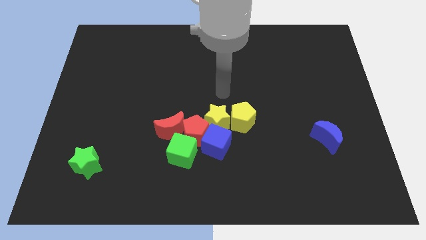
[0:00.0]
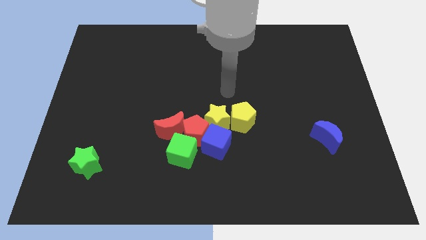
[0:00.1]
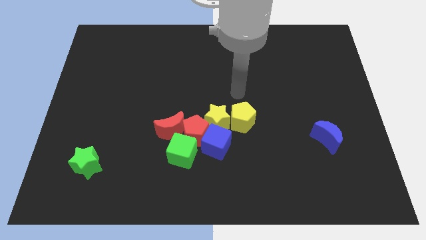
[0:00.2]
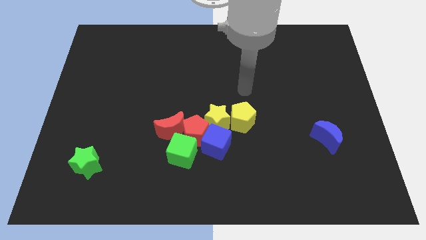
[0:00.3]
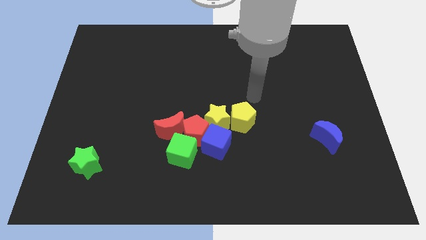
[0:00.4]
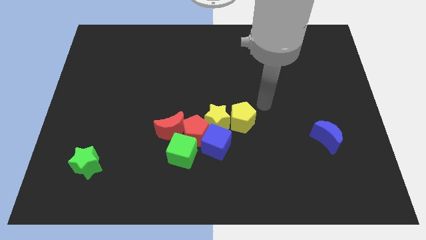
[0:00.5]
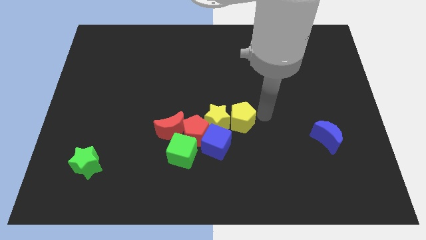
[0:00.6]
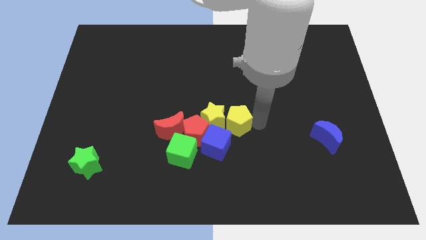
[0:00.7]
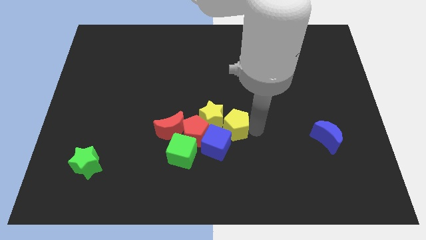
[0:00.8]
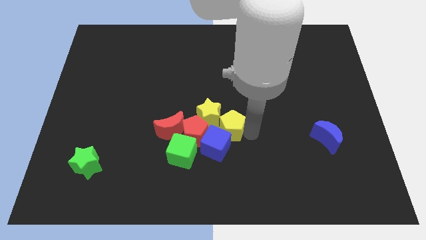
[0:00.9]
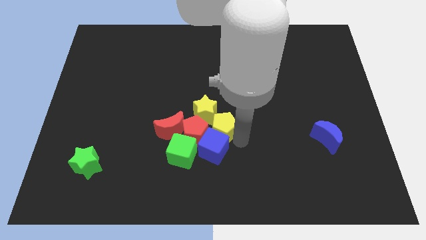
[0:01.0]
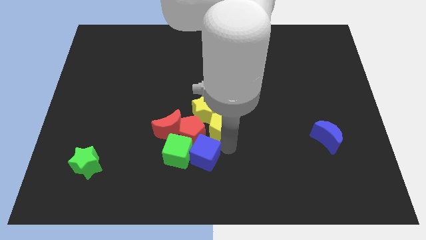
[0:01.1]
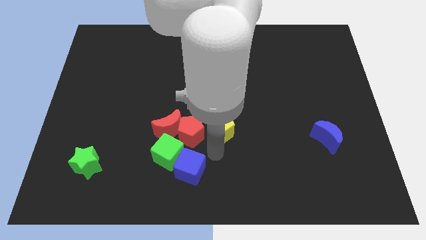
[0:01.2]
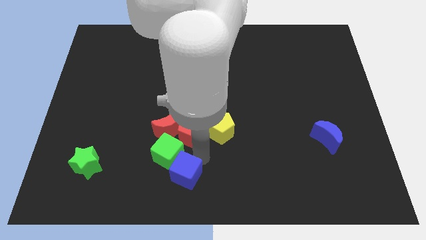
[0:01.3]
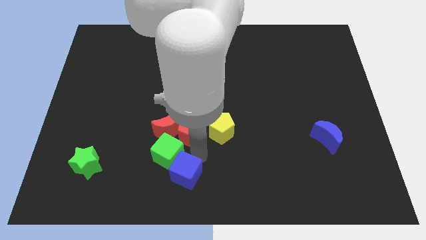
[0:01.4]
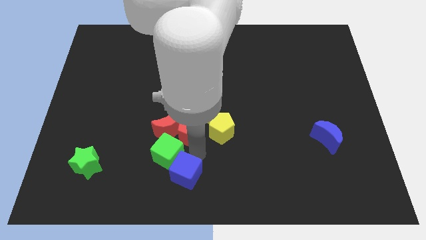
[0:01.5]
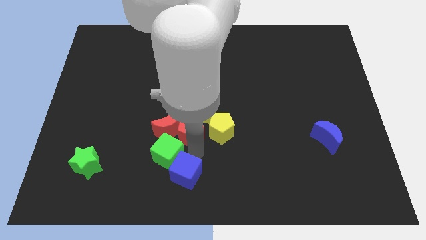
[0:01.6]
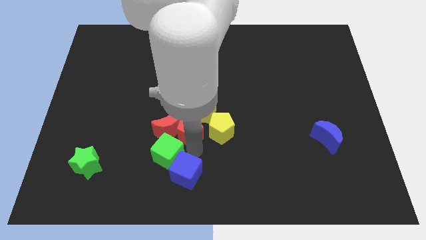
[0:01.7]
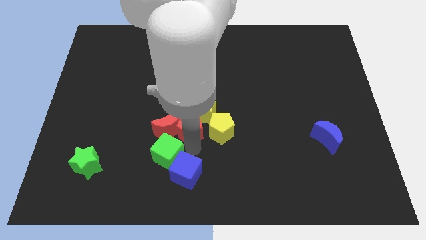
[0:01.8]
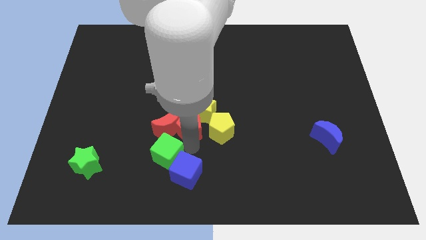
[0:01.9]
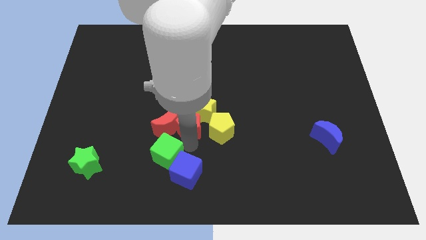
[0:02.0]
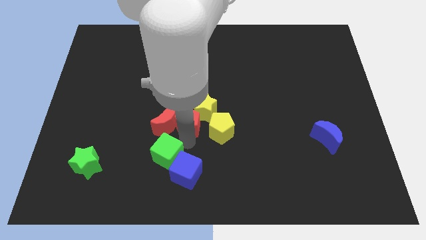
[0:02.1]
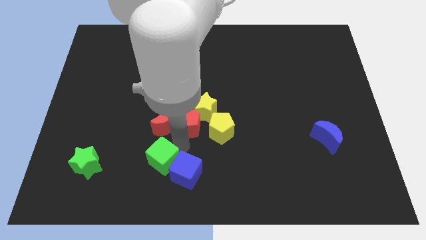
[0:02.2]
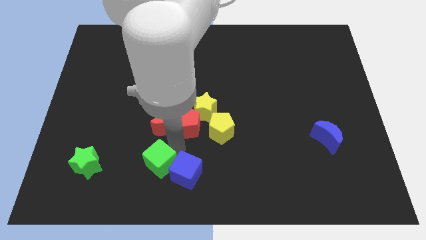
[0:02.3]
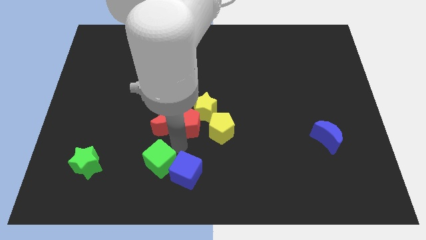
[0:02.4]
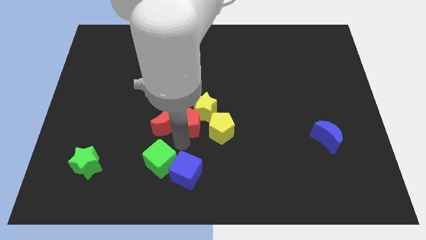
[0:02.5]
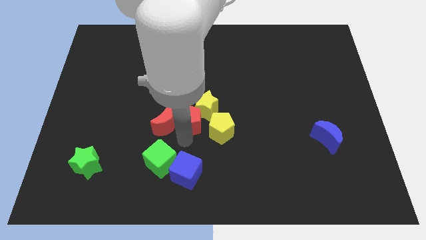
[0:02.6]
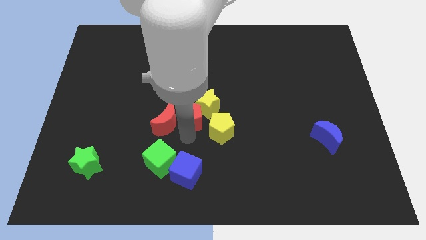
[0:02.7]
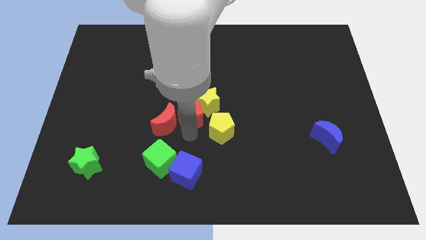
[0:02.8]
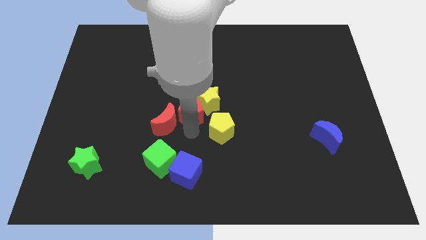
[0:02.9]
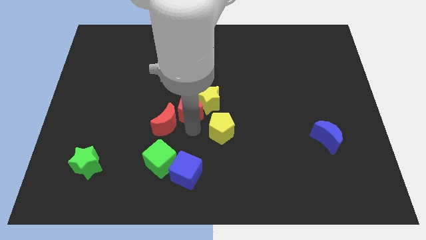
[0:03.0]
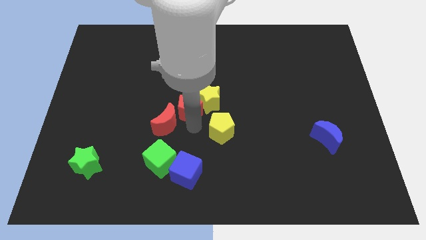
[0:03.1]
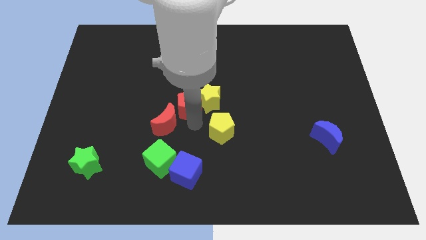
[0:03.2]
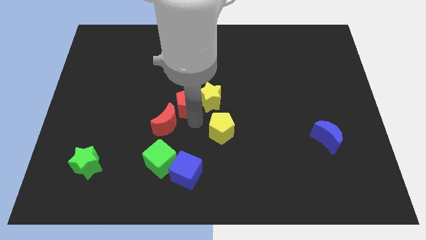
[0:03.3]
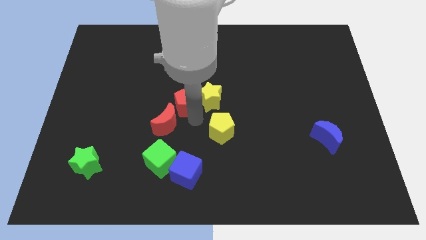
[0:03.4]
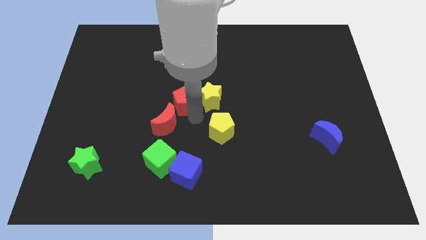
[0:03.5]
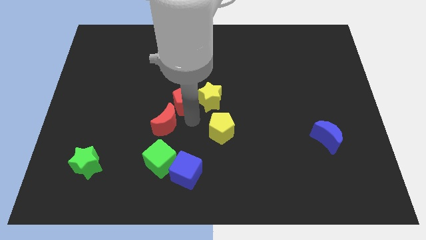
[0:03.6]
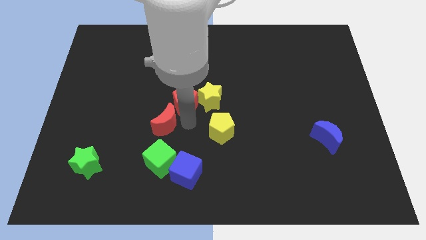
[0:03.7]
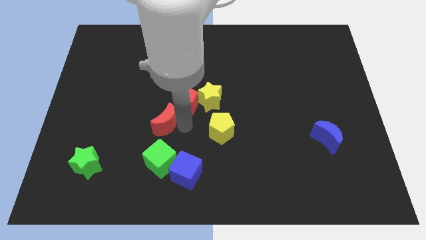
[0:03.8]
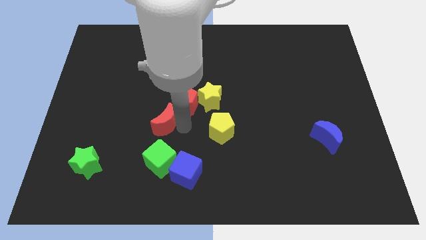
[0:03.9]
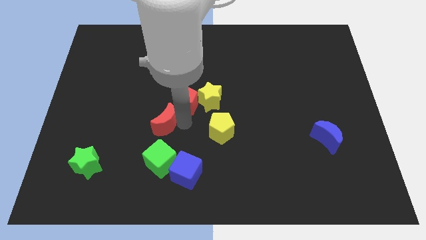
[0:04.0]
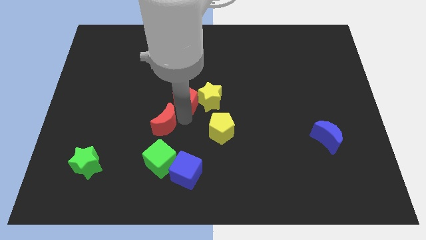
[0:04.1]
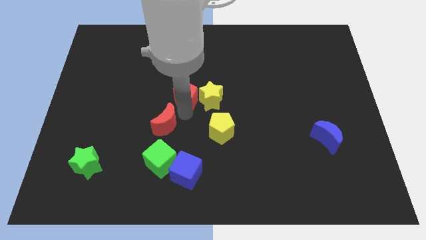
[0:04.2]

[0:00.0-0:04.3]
separate the red pentagon from the group of blocks

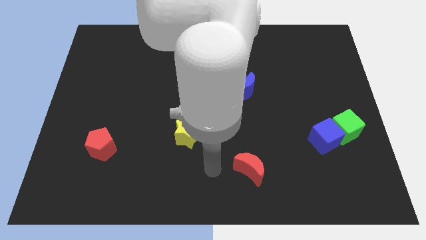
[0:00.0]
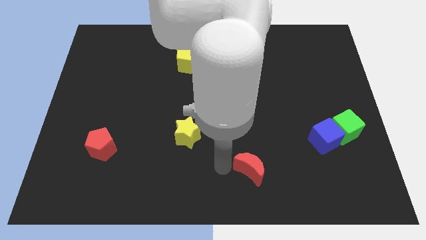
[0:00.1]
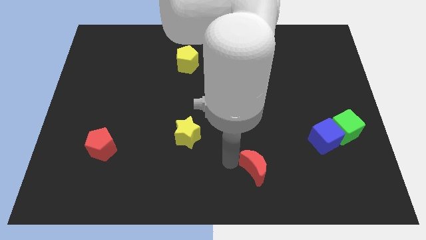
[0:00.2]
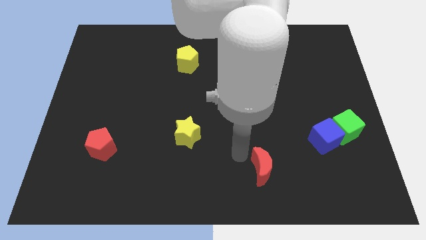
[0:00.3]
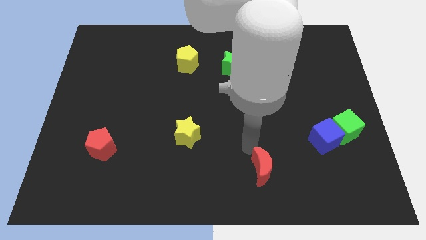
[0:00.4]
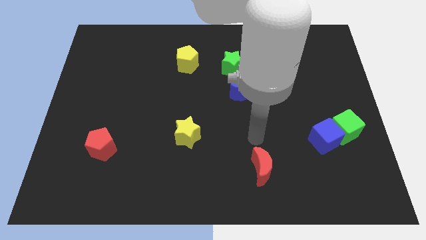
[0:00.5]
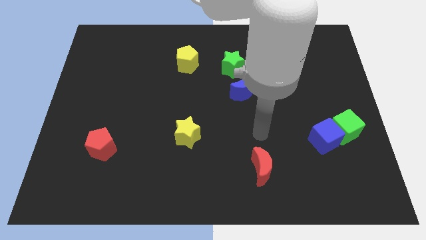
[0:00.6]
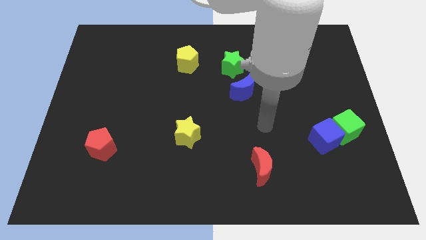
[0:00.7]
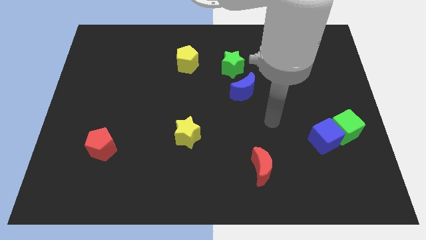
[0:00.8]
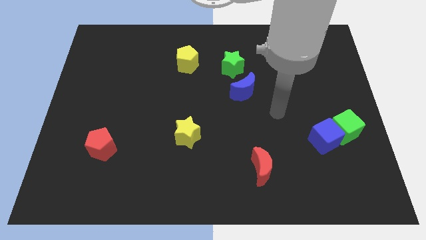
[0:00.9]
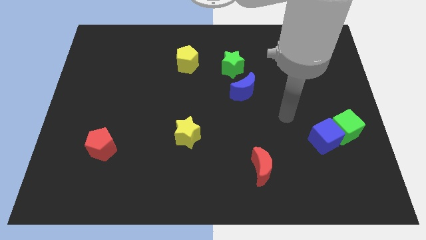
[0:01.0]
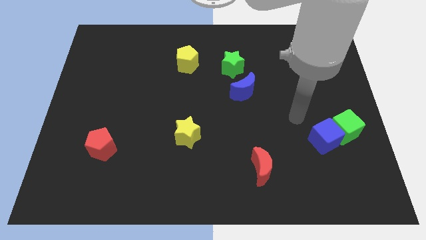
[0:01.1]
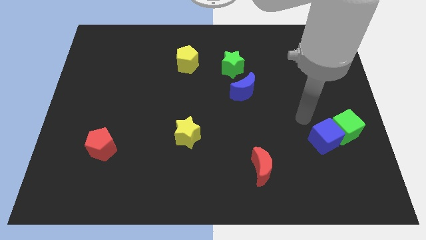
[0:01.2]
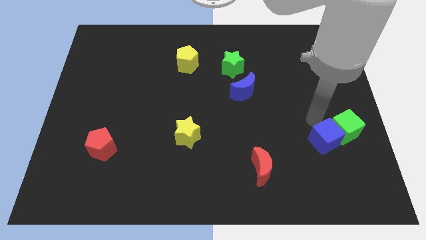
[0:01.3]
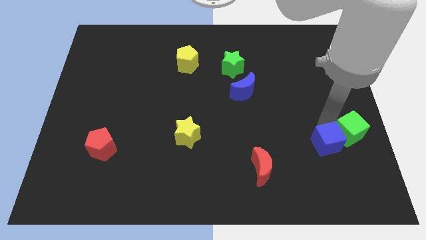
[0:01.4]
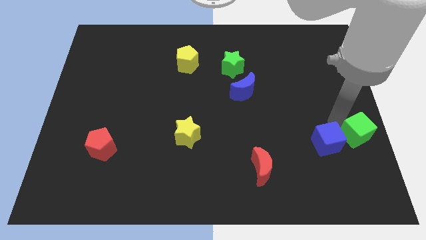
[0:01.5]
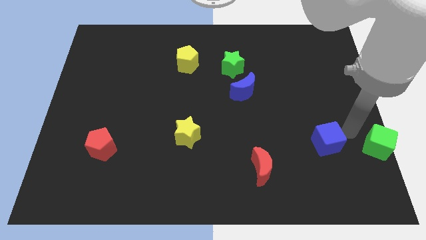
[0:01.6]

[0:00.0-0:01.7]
separate the blue cube from the green cube

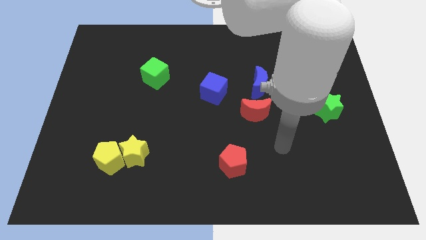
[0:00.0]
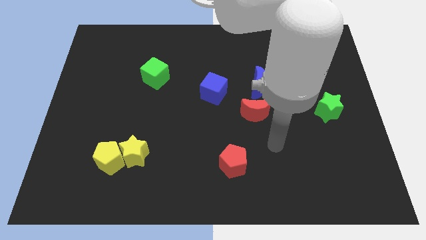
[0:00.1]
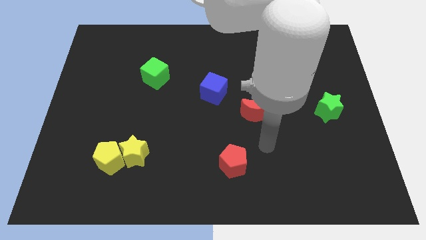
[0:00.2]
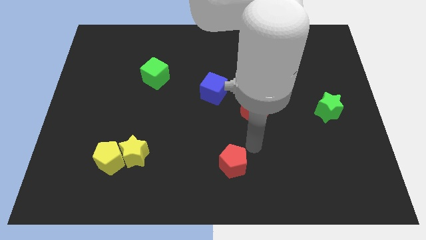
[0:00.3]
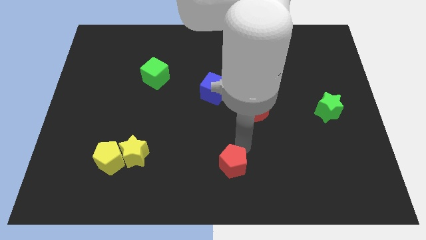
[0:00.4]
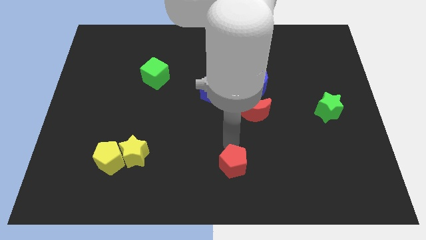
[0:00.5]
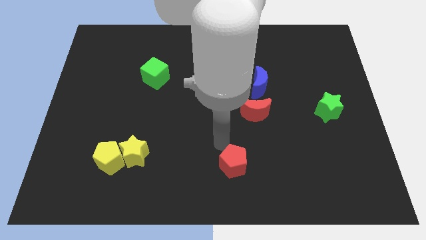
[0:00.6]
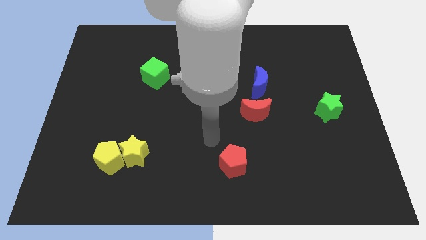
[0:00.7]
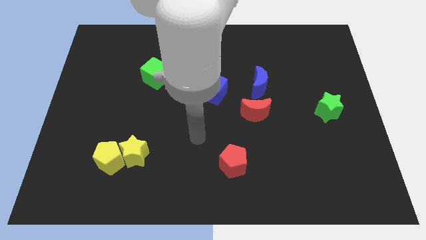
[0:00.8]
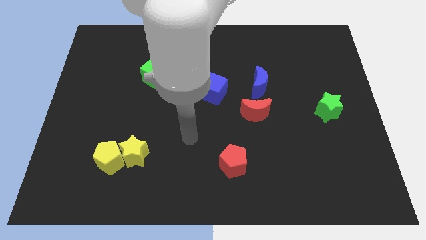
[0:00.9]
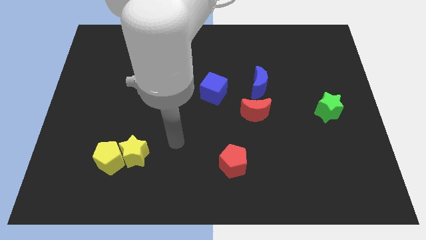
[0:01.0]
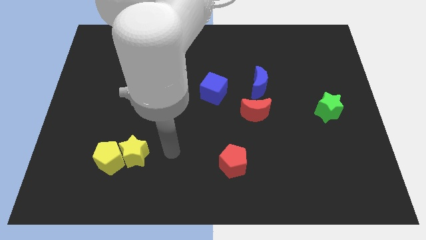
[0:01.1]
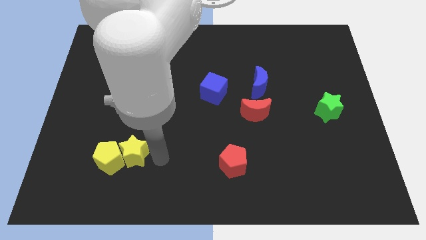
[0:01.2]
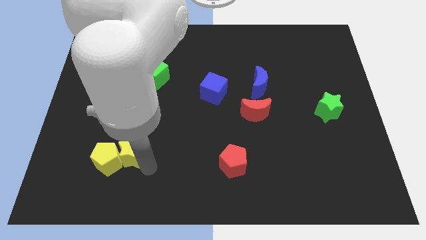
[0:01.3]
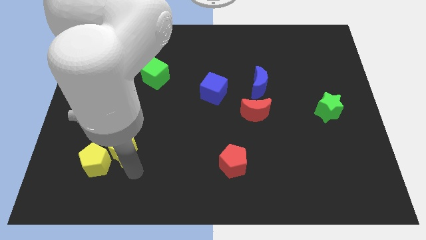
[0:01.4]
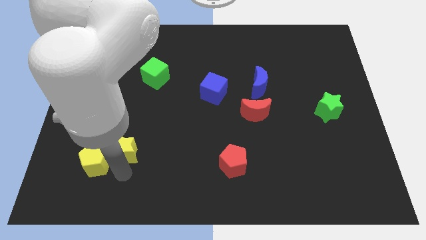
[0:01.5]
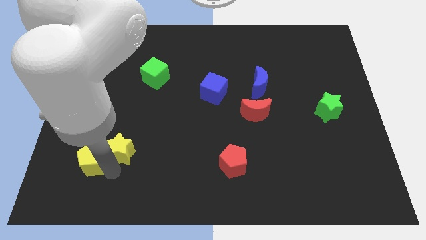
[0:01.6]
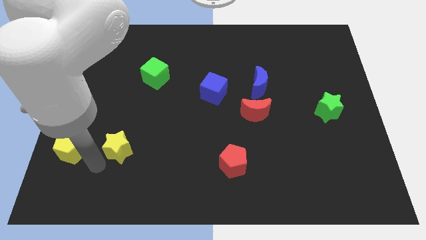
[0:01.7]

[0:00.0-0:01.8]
pull the yellow star apart from the yellow pentagon

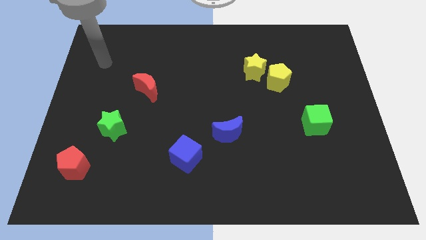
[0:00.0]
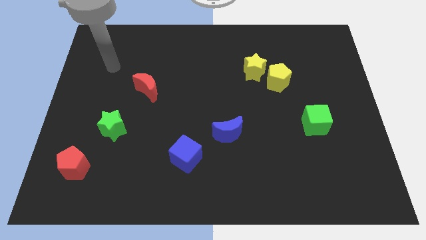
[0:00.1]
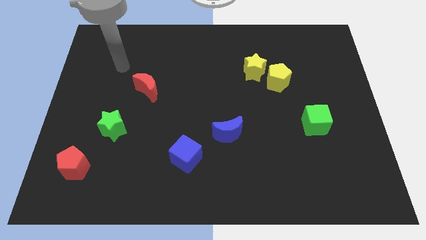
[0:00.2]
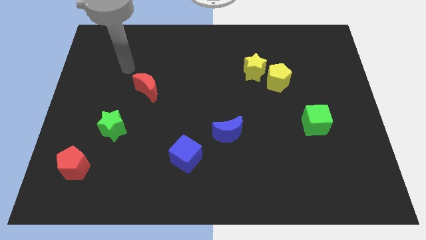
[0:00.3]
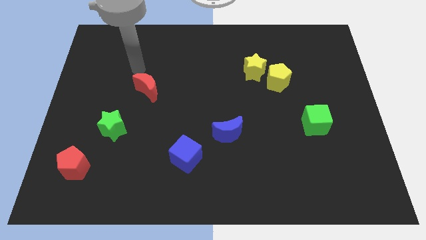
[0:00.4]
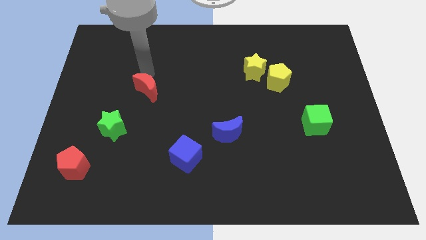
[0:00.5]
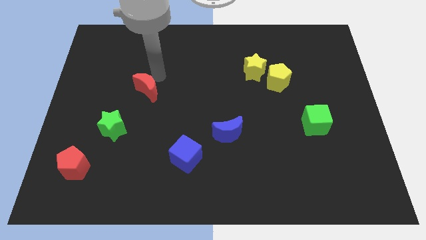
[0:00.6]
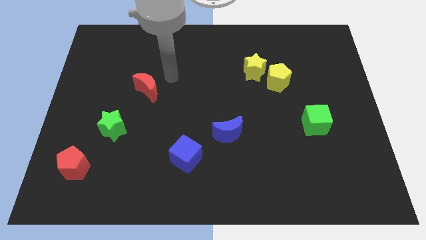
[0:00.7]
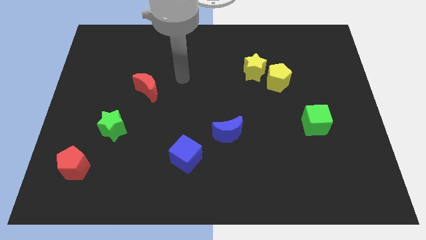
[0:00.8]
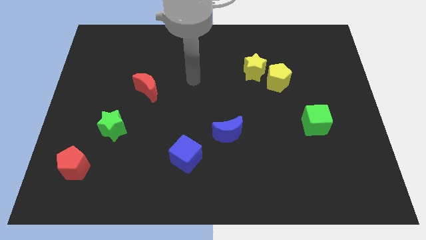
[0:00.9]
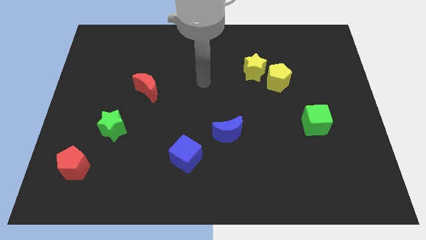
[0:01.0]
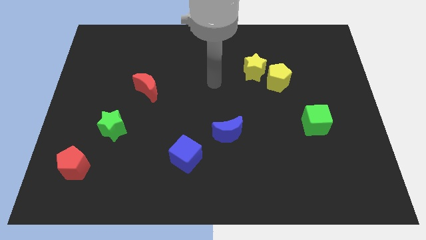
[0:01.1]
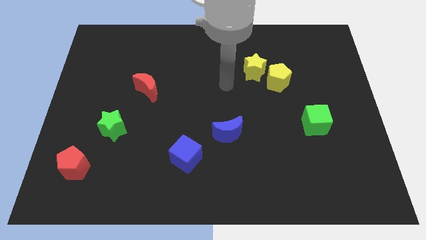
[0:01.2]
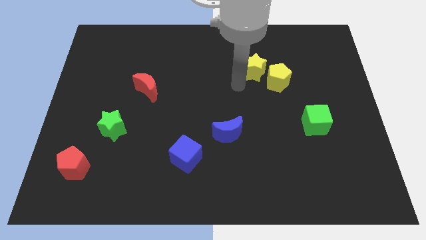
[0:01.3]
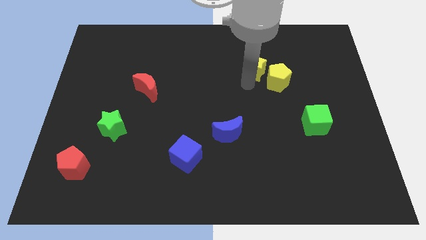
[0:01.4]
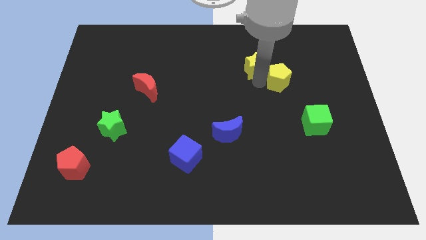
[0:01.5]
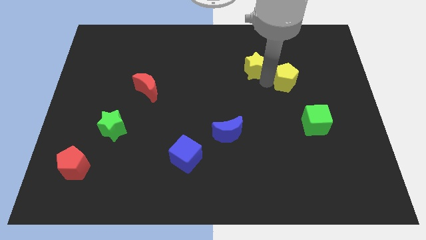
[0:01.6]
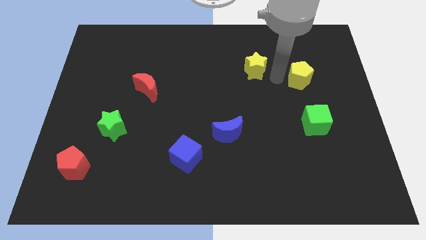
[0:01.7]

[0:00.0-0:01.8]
move the yellow star away from the yellow pentagon
